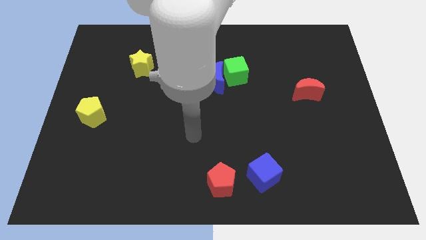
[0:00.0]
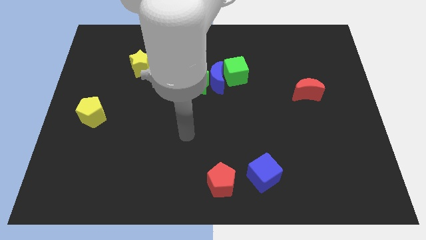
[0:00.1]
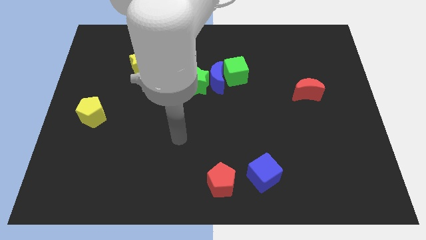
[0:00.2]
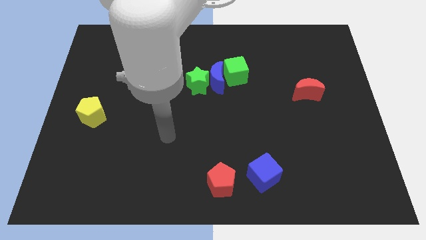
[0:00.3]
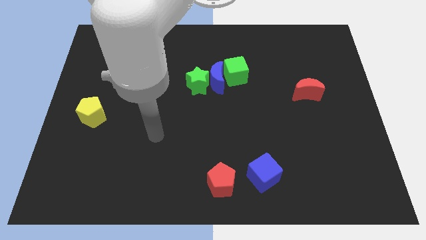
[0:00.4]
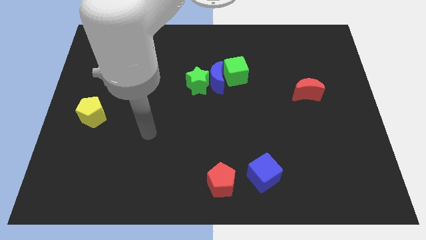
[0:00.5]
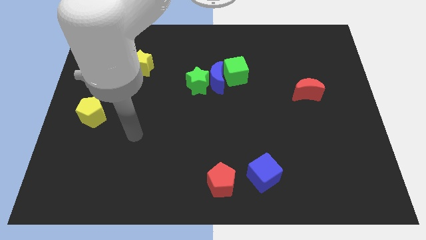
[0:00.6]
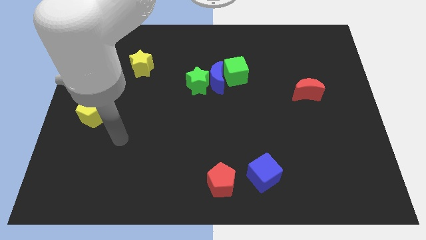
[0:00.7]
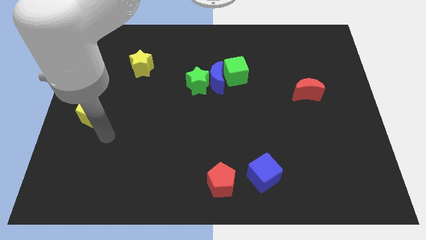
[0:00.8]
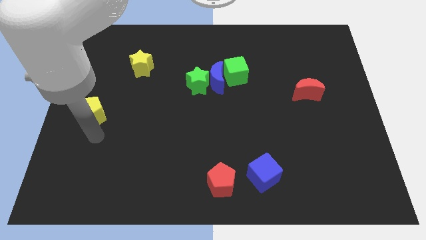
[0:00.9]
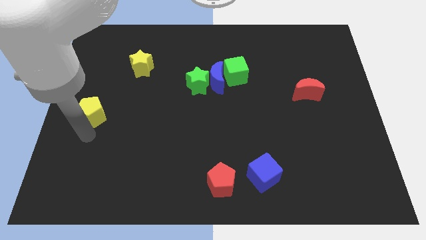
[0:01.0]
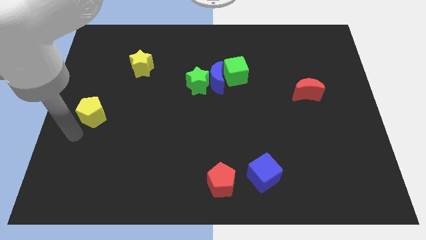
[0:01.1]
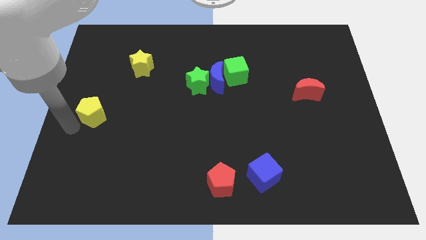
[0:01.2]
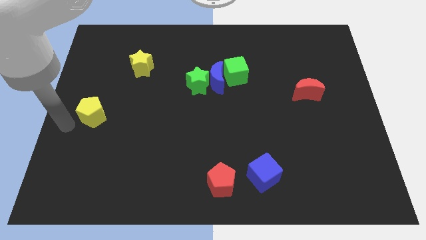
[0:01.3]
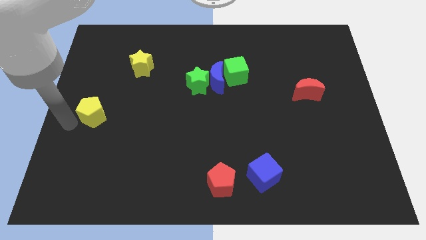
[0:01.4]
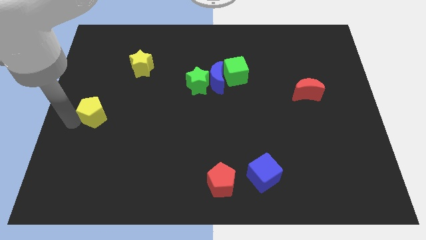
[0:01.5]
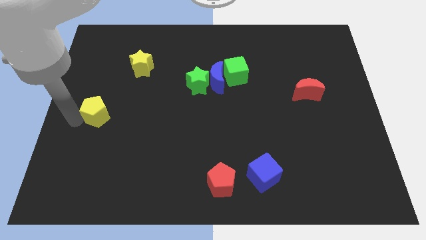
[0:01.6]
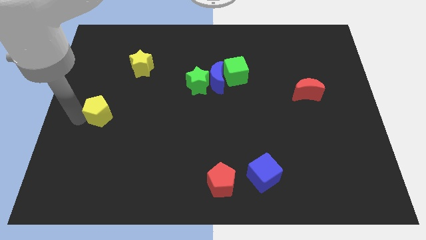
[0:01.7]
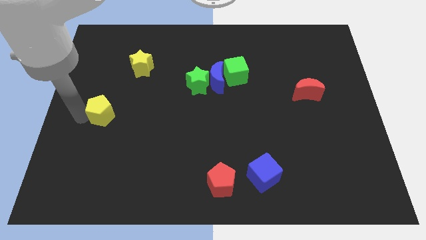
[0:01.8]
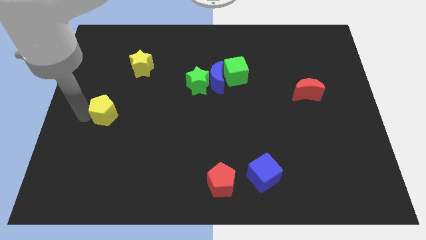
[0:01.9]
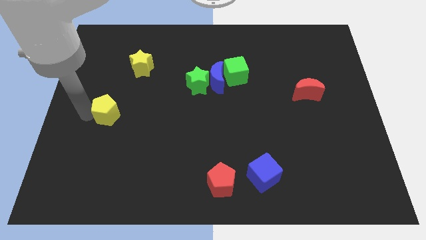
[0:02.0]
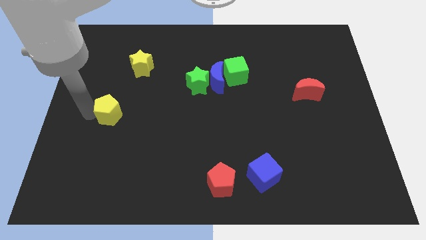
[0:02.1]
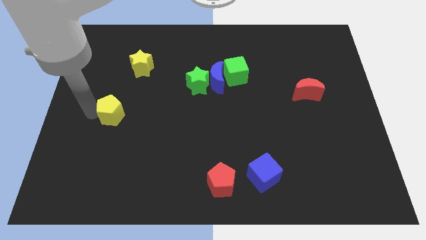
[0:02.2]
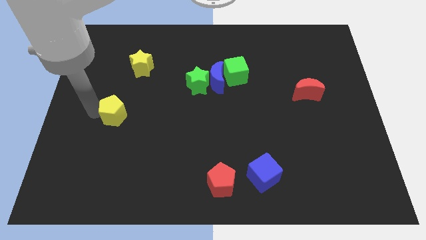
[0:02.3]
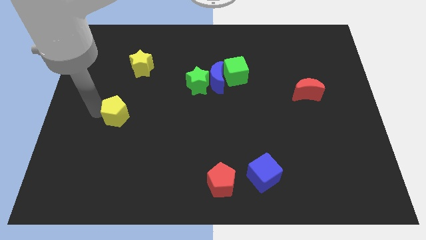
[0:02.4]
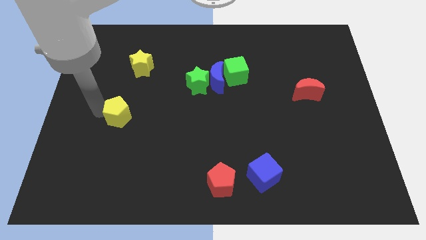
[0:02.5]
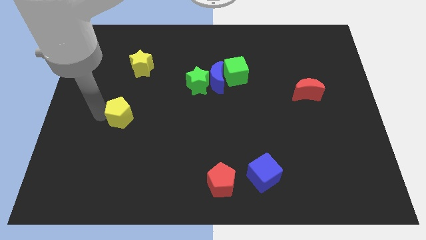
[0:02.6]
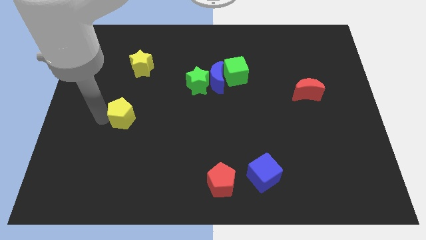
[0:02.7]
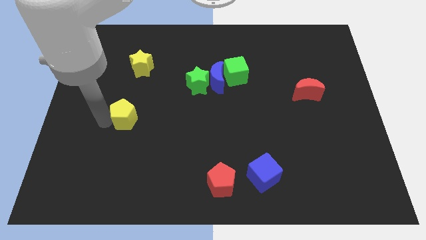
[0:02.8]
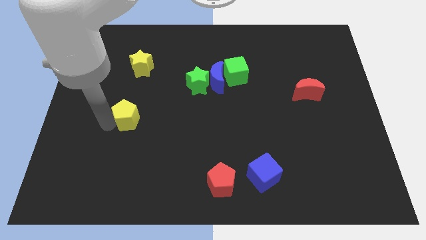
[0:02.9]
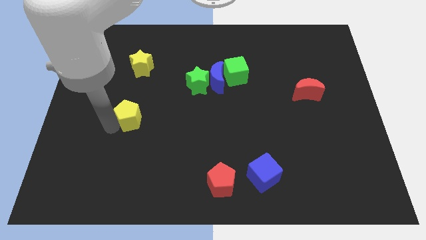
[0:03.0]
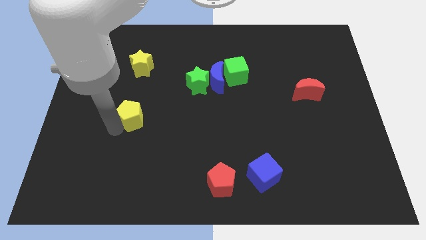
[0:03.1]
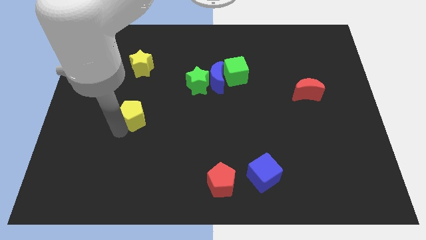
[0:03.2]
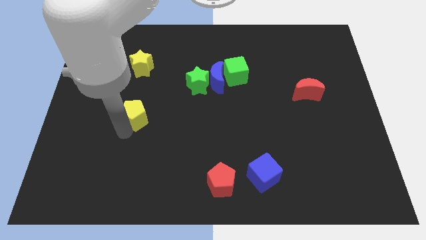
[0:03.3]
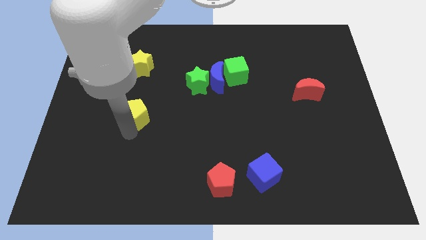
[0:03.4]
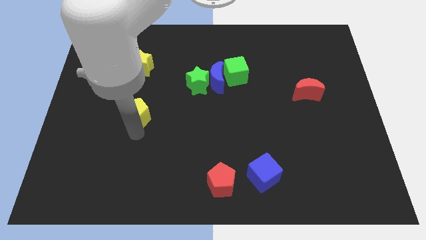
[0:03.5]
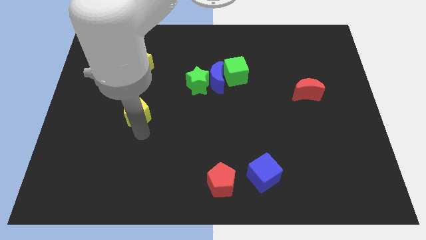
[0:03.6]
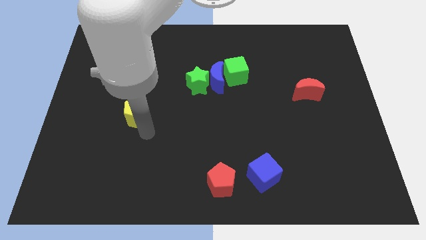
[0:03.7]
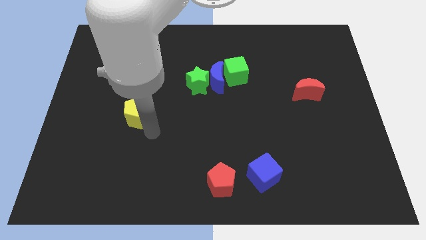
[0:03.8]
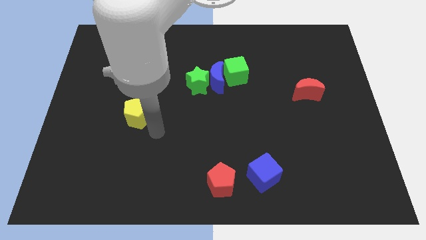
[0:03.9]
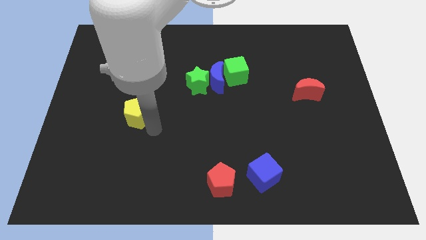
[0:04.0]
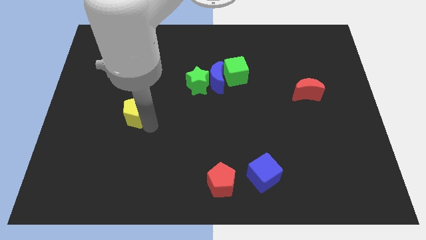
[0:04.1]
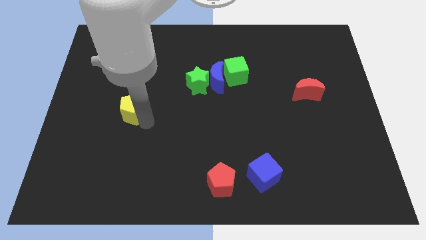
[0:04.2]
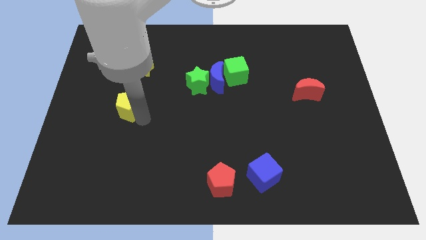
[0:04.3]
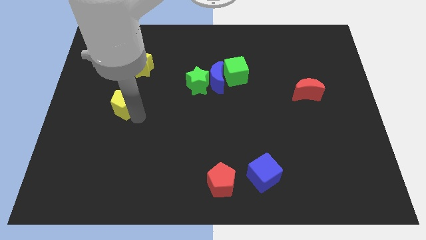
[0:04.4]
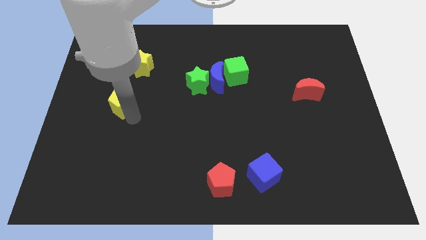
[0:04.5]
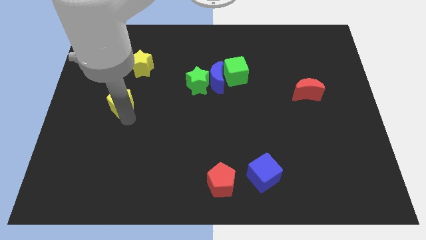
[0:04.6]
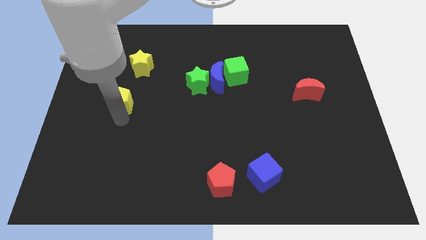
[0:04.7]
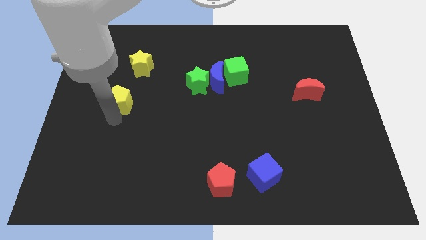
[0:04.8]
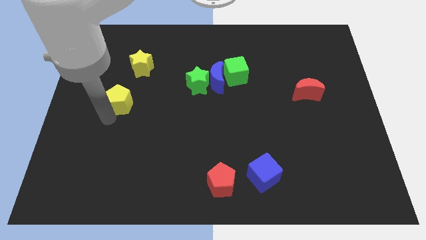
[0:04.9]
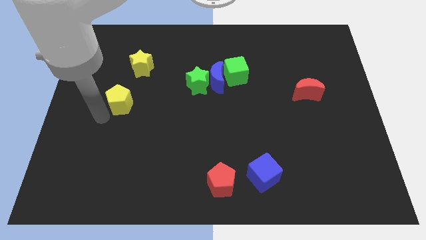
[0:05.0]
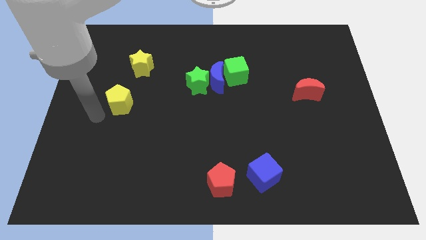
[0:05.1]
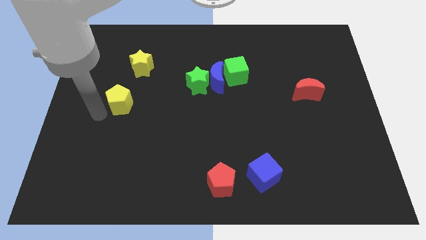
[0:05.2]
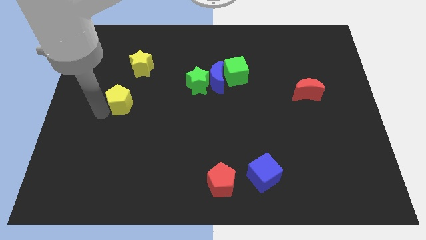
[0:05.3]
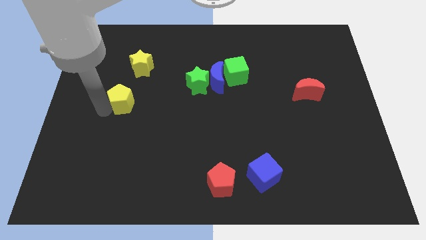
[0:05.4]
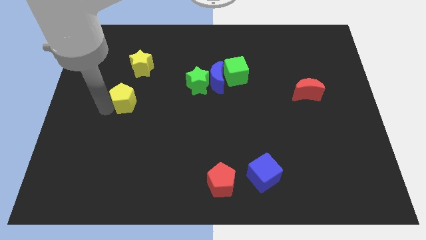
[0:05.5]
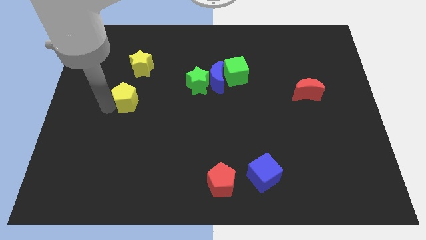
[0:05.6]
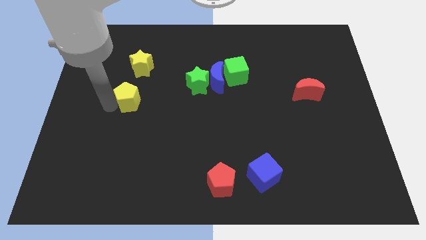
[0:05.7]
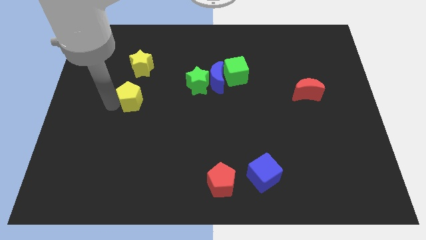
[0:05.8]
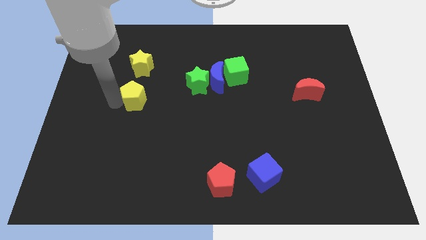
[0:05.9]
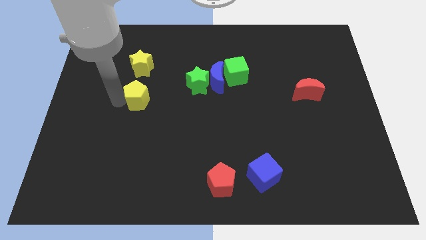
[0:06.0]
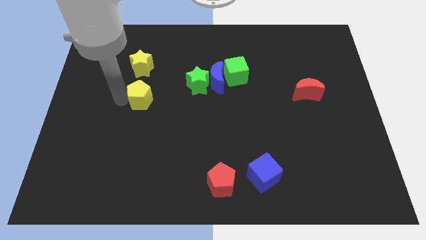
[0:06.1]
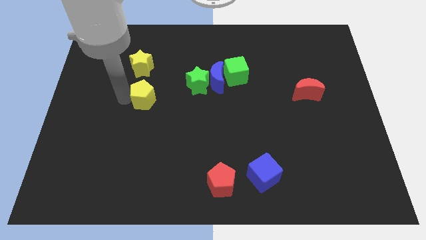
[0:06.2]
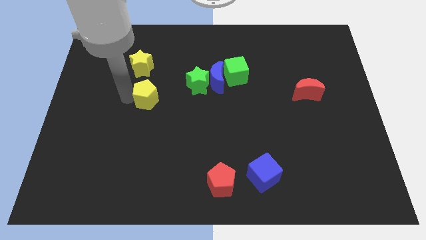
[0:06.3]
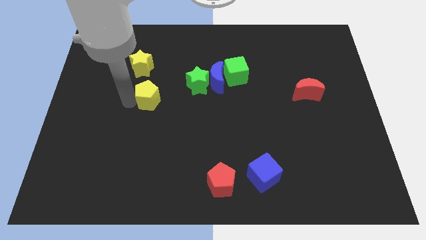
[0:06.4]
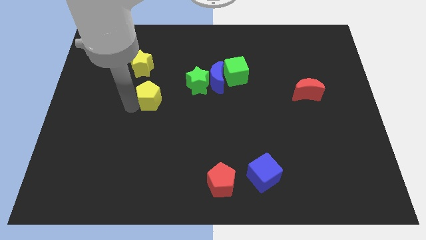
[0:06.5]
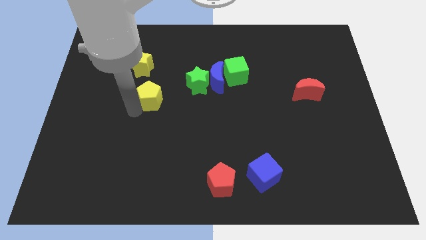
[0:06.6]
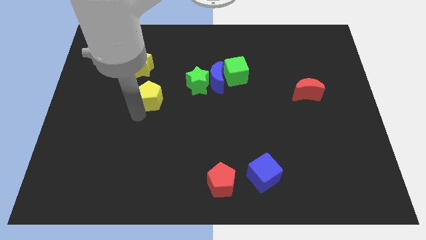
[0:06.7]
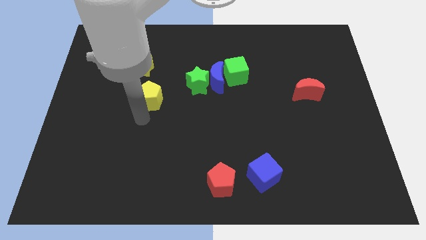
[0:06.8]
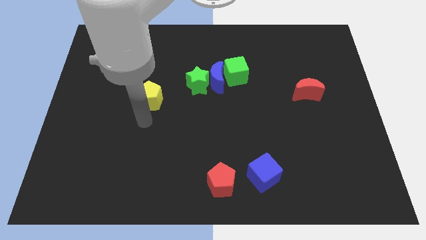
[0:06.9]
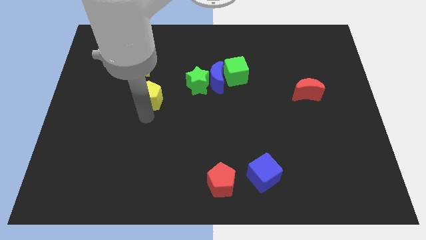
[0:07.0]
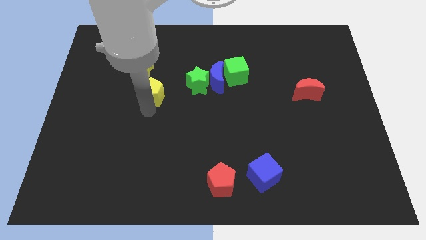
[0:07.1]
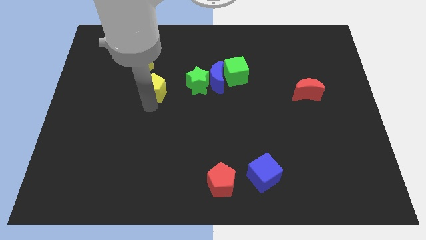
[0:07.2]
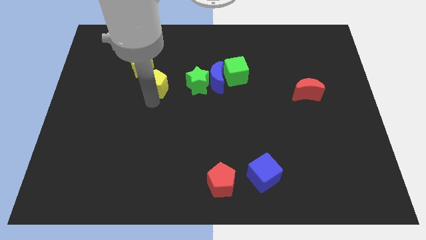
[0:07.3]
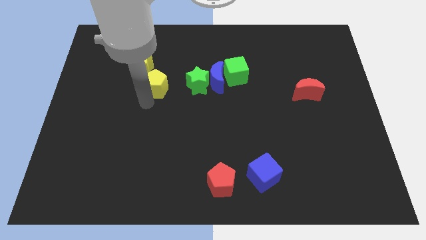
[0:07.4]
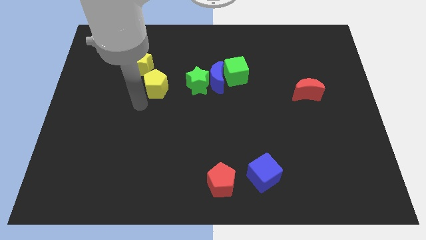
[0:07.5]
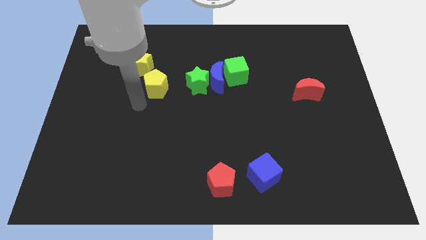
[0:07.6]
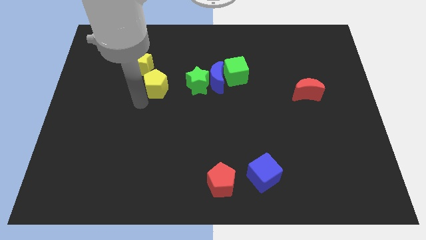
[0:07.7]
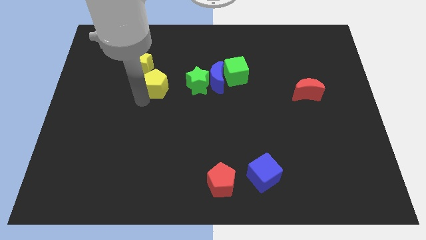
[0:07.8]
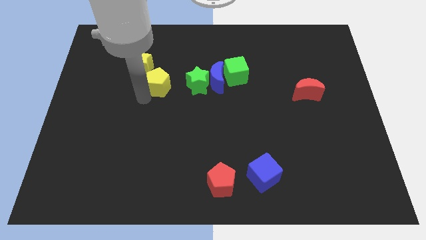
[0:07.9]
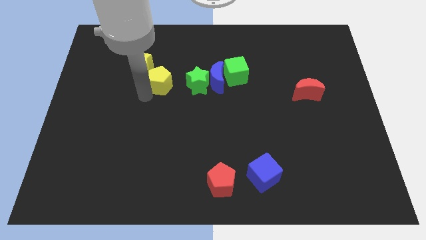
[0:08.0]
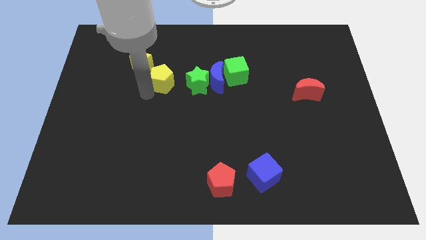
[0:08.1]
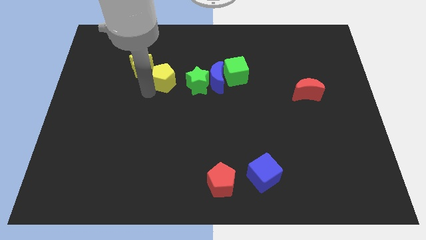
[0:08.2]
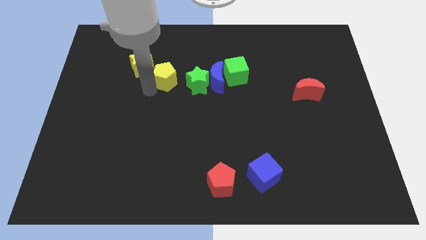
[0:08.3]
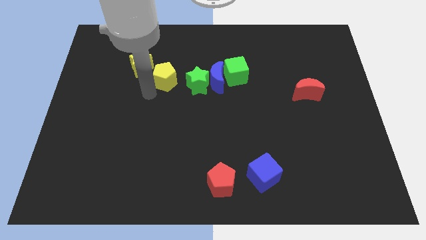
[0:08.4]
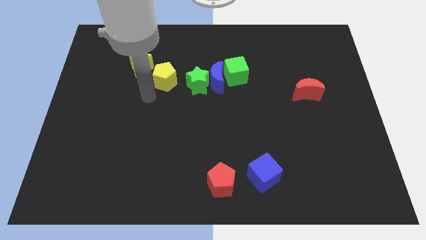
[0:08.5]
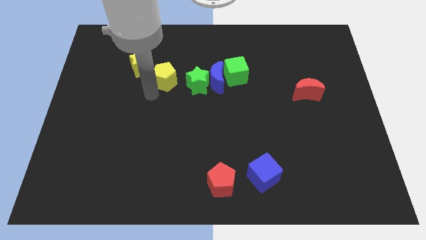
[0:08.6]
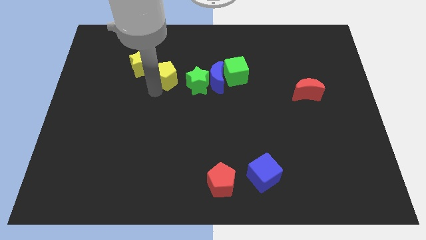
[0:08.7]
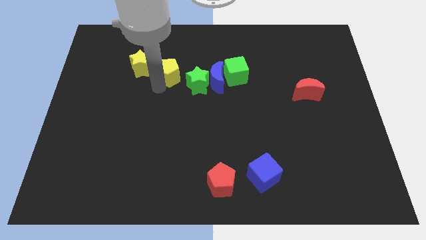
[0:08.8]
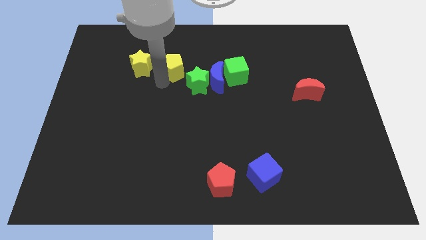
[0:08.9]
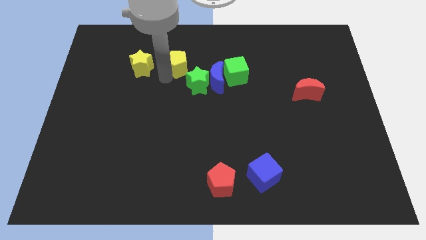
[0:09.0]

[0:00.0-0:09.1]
slide the yellow pentagon to the top left of the blue moon
